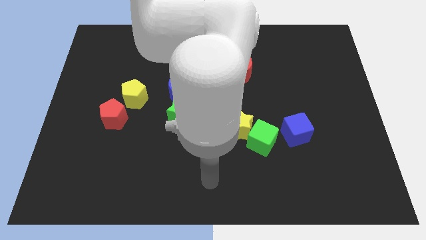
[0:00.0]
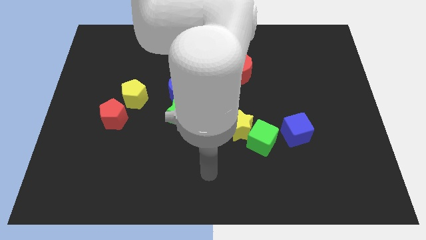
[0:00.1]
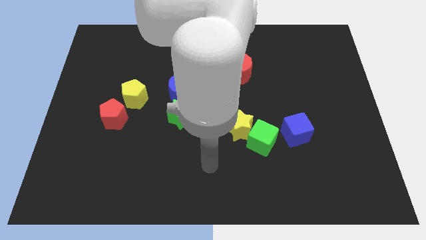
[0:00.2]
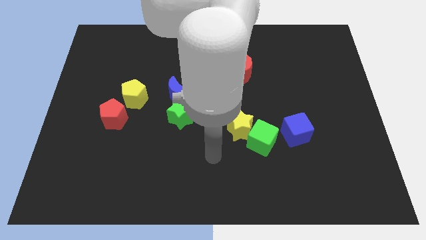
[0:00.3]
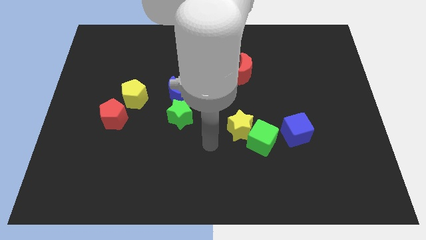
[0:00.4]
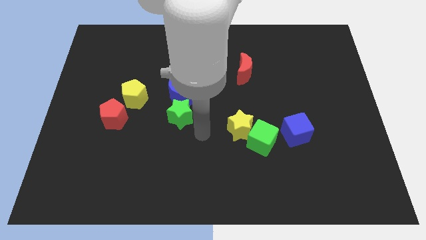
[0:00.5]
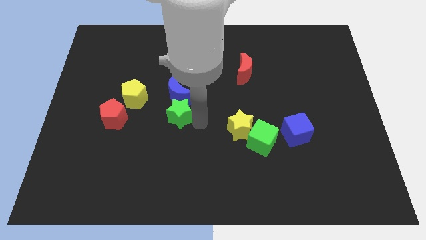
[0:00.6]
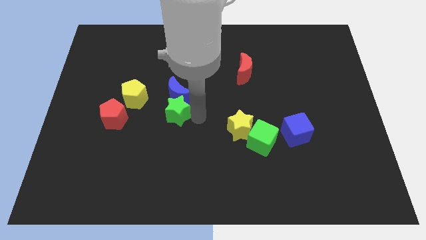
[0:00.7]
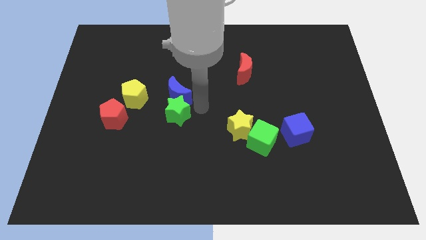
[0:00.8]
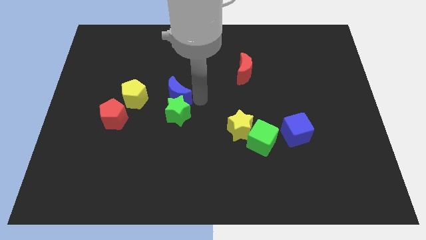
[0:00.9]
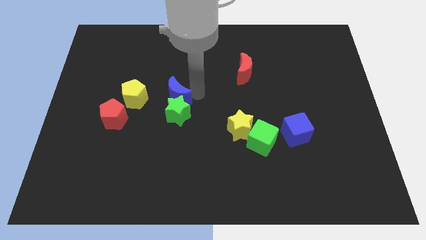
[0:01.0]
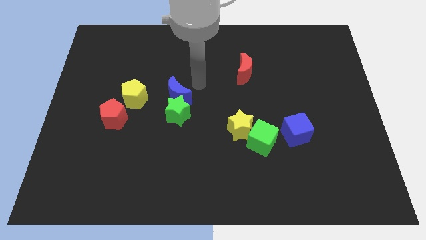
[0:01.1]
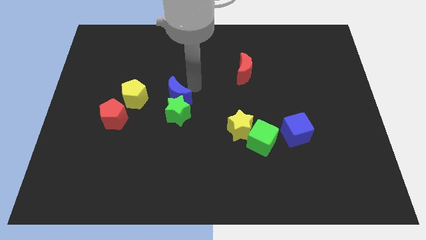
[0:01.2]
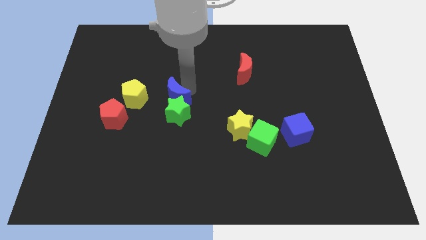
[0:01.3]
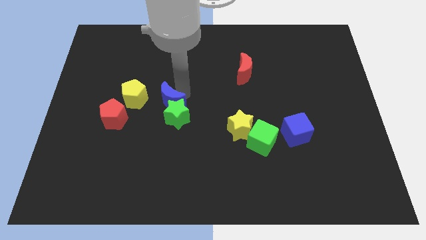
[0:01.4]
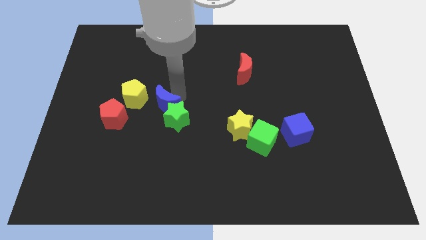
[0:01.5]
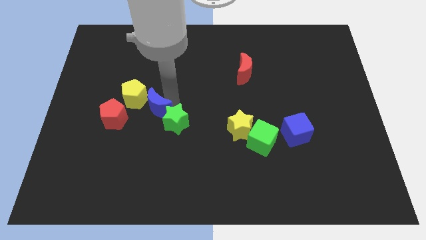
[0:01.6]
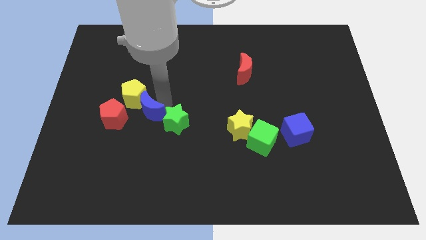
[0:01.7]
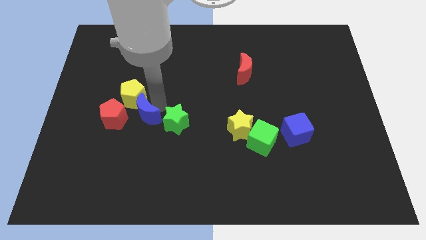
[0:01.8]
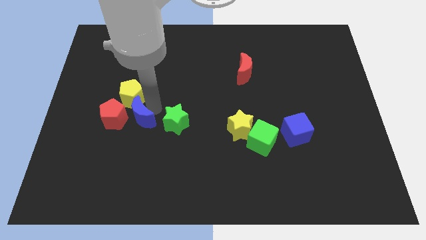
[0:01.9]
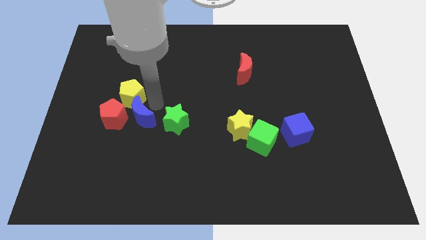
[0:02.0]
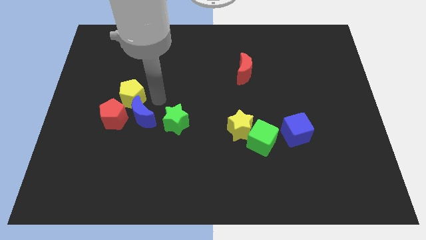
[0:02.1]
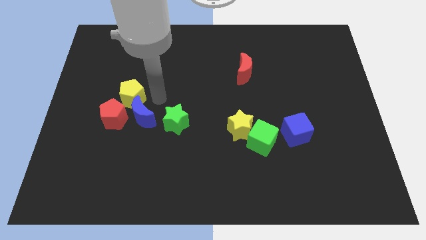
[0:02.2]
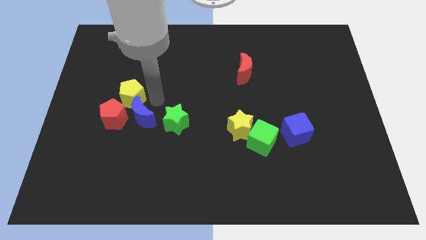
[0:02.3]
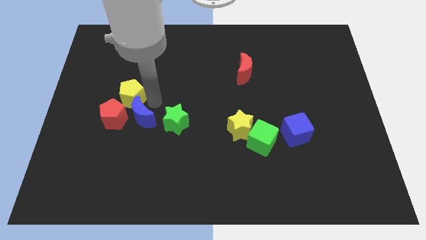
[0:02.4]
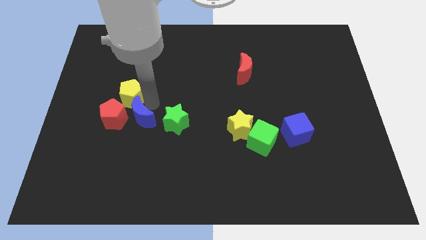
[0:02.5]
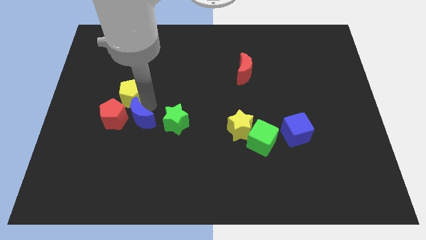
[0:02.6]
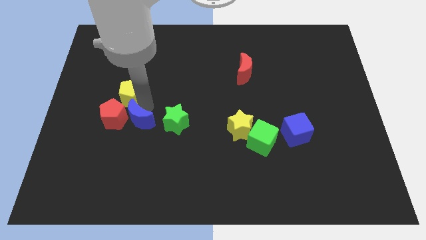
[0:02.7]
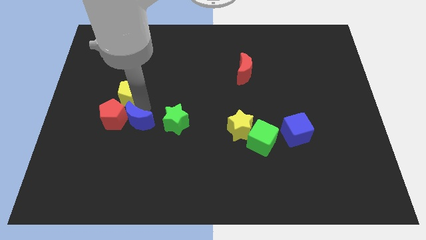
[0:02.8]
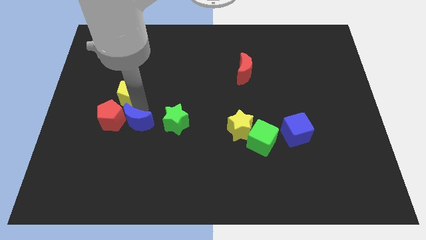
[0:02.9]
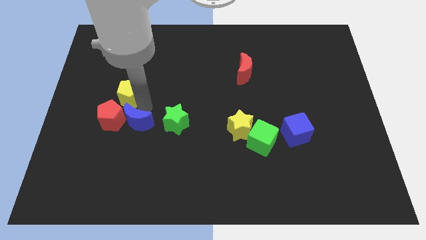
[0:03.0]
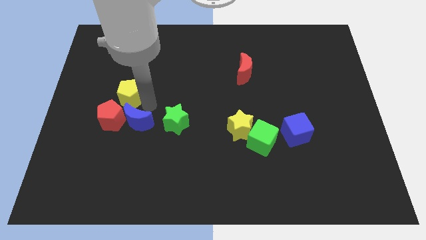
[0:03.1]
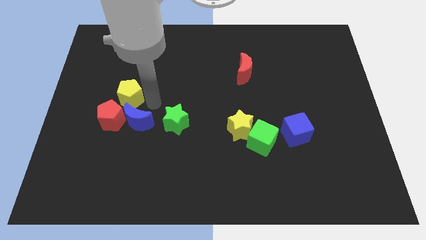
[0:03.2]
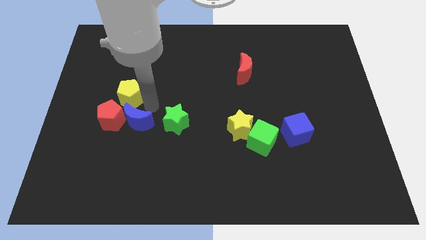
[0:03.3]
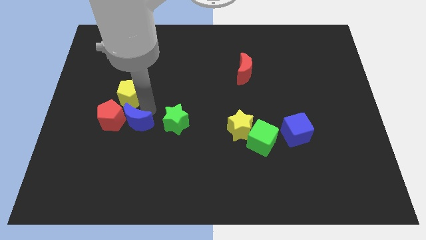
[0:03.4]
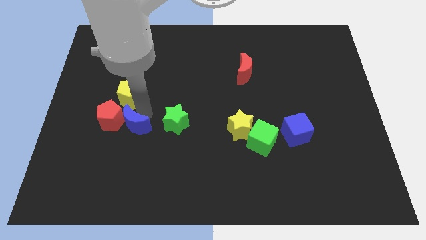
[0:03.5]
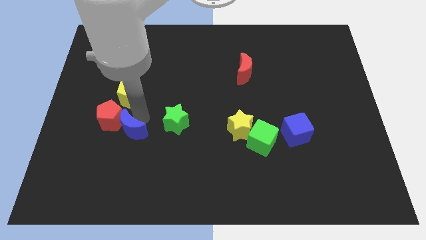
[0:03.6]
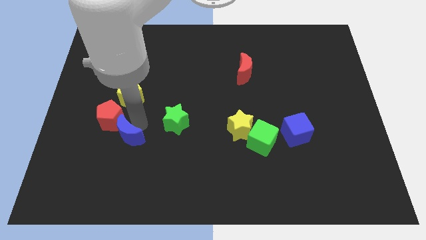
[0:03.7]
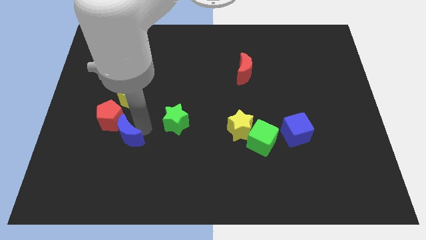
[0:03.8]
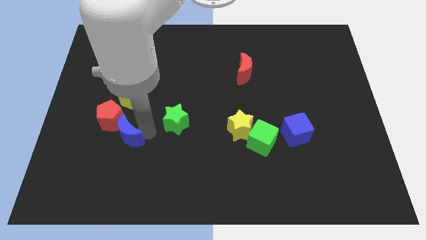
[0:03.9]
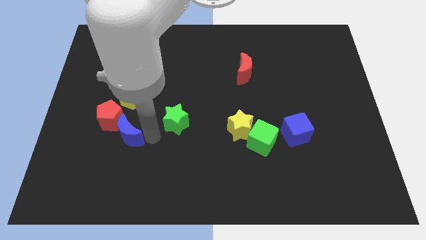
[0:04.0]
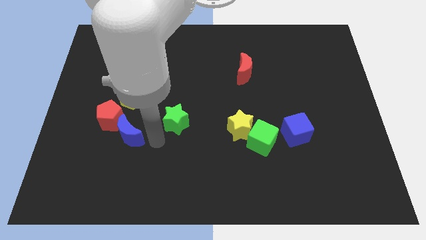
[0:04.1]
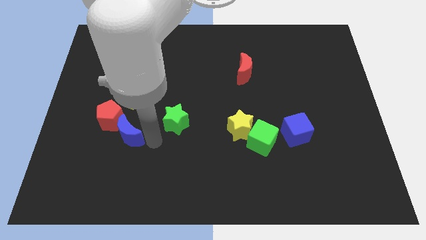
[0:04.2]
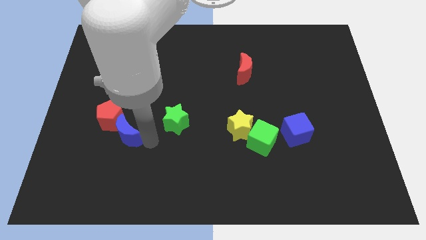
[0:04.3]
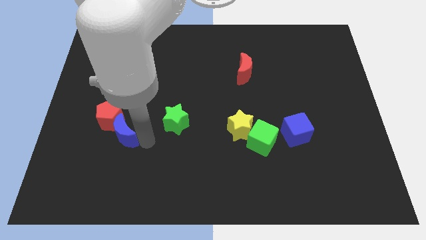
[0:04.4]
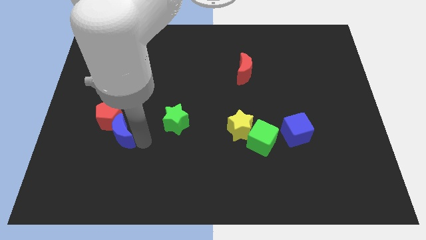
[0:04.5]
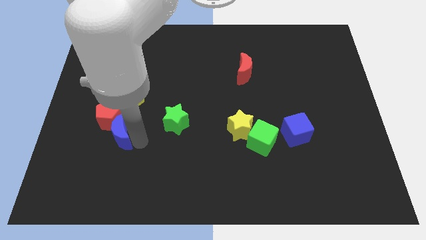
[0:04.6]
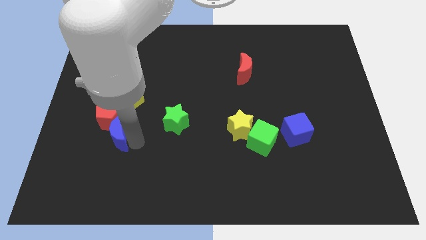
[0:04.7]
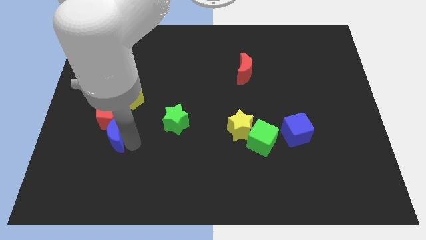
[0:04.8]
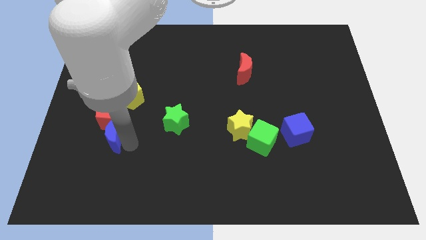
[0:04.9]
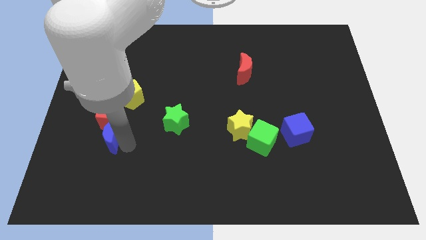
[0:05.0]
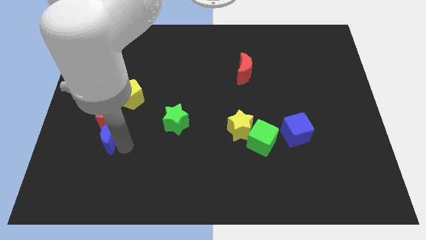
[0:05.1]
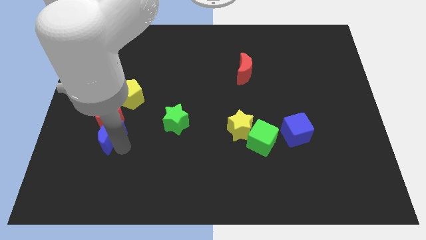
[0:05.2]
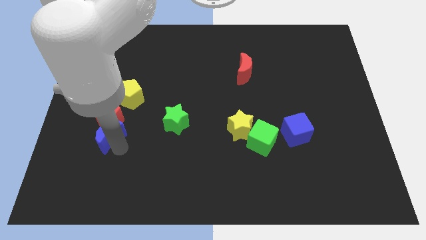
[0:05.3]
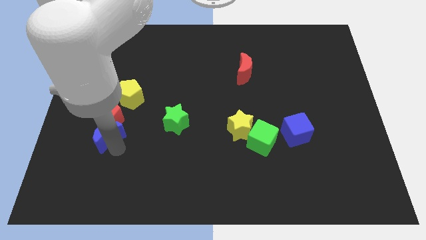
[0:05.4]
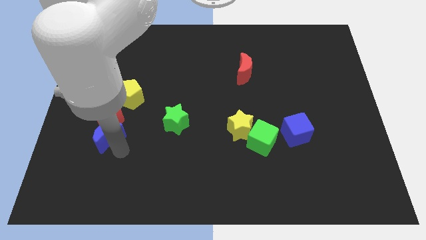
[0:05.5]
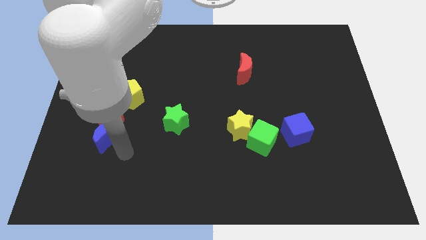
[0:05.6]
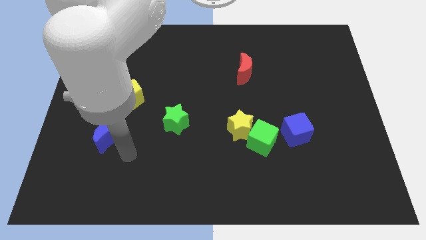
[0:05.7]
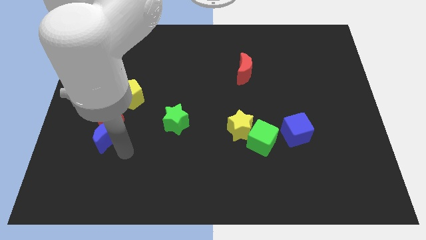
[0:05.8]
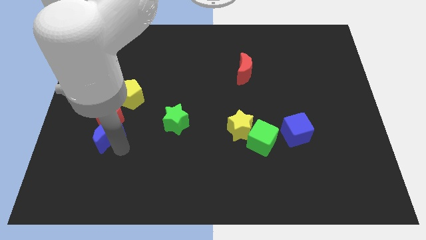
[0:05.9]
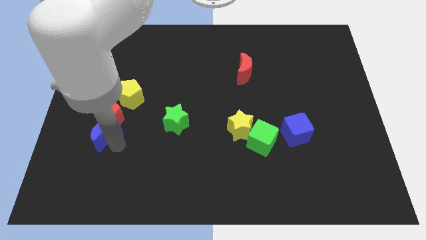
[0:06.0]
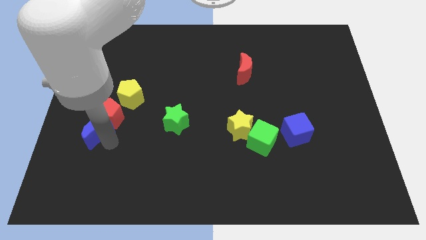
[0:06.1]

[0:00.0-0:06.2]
push the blue moon to the bottom left side of the yellow pentagon

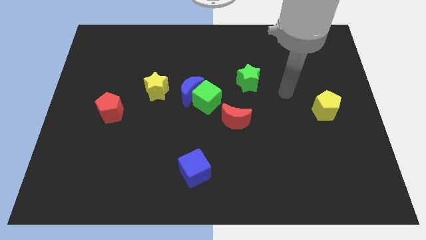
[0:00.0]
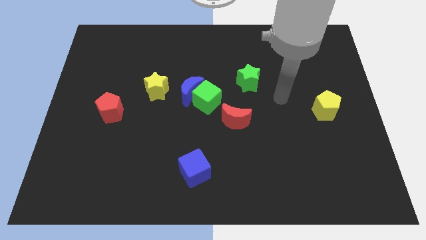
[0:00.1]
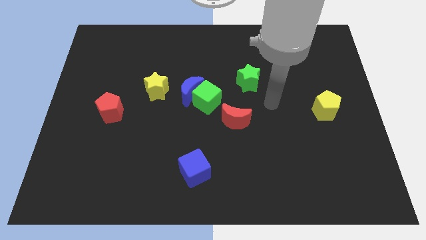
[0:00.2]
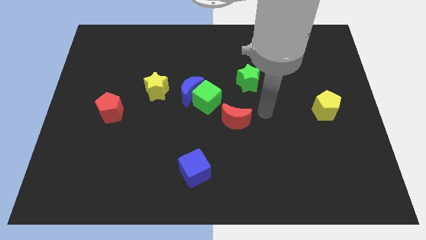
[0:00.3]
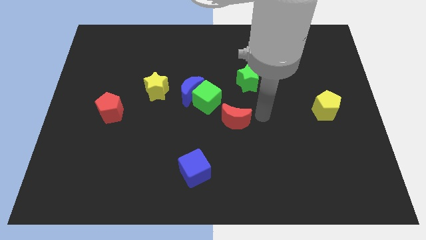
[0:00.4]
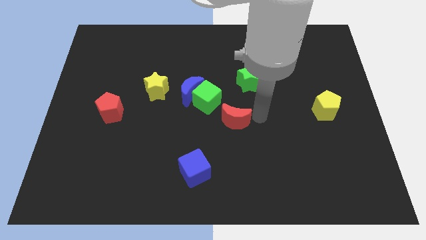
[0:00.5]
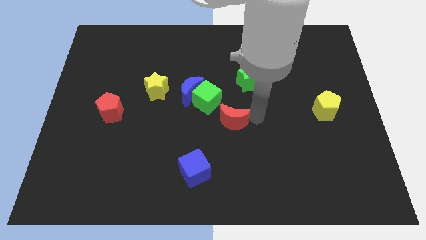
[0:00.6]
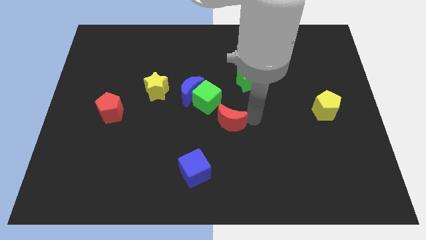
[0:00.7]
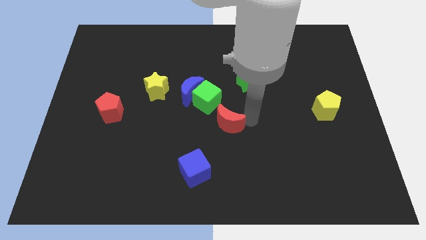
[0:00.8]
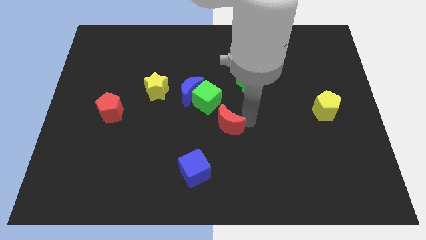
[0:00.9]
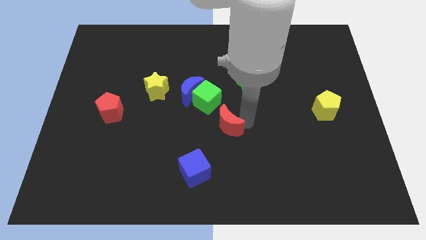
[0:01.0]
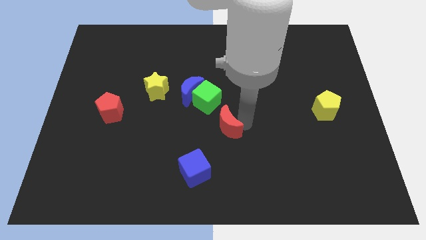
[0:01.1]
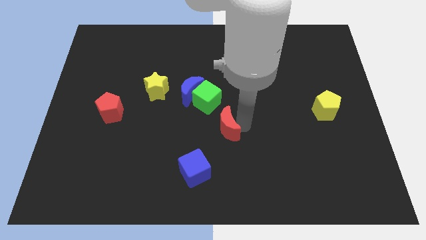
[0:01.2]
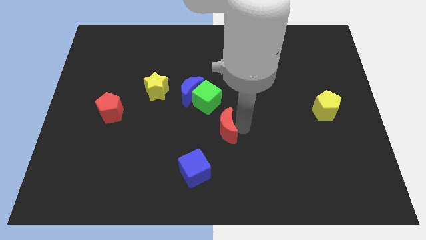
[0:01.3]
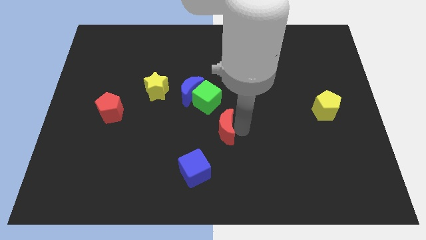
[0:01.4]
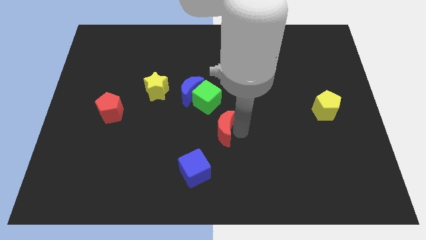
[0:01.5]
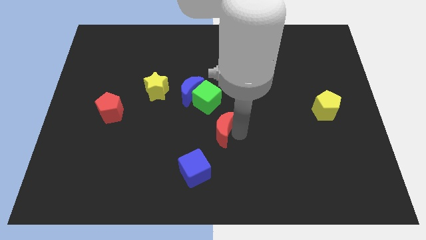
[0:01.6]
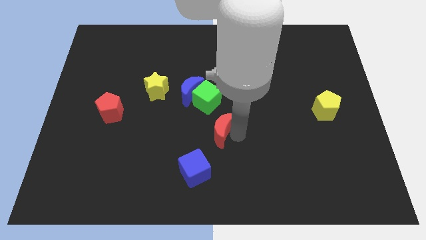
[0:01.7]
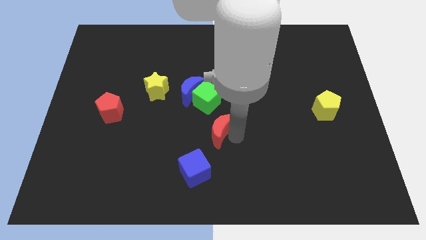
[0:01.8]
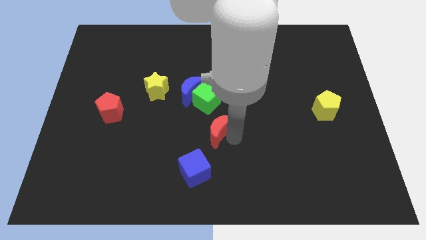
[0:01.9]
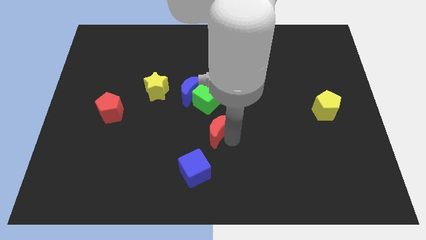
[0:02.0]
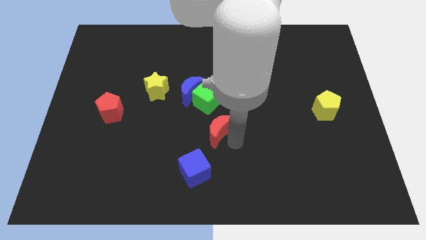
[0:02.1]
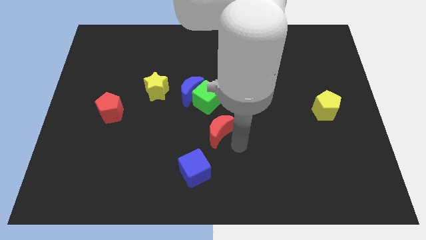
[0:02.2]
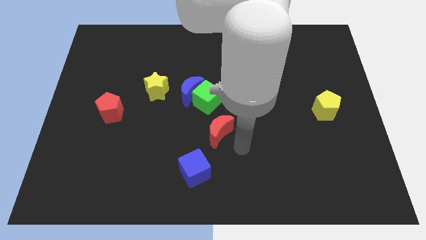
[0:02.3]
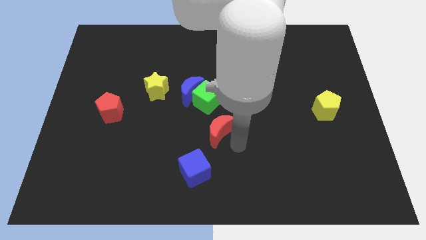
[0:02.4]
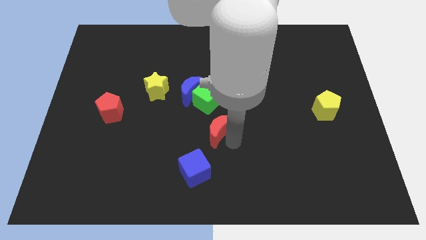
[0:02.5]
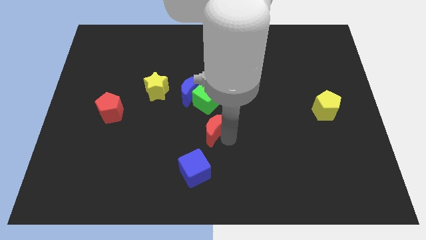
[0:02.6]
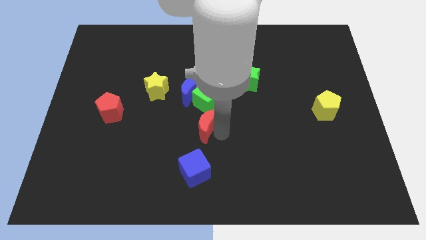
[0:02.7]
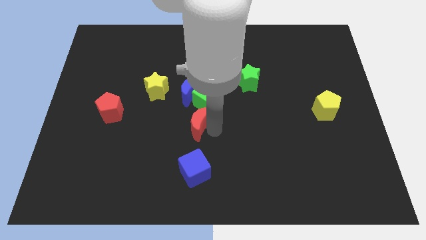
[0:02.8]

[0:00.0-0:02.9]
put the red moon to the bottom left of the green cube
